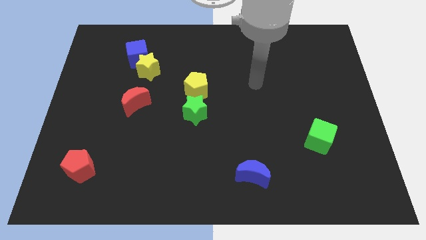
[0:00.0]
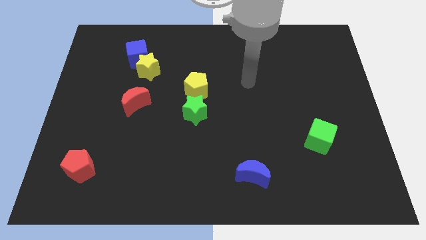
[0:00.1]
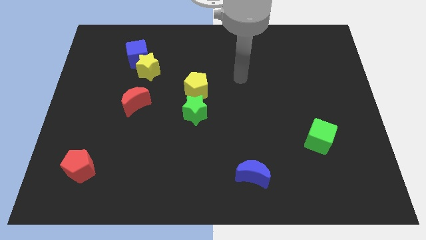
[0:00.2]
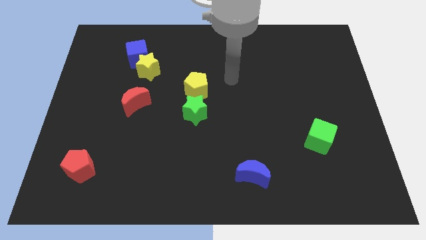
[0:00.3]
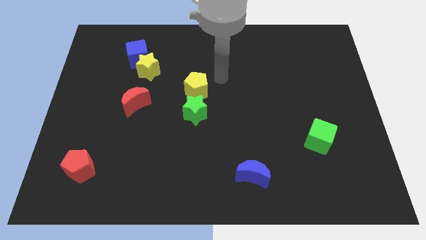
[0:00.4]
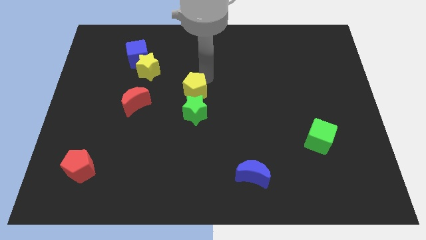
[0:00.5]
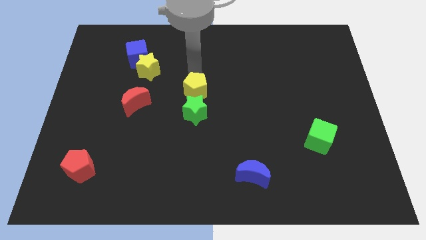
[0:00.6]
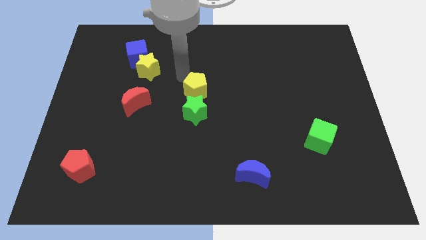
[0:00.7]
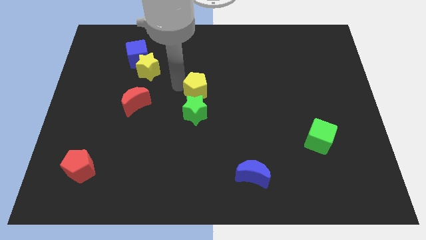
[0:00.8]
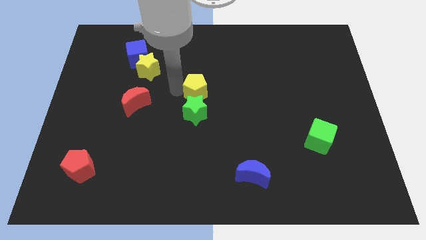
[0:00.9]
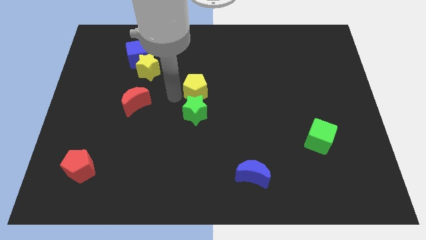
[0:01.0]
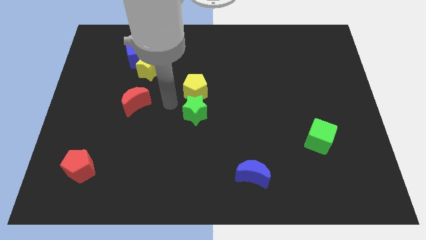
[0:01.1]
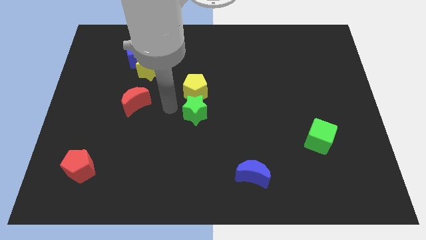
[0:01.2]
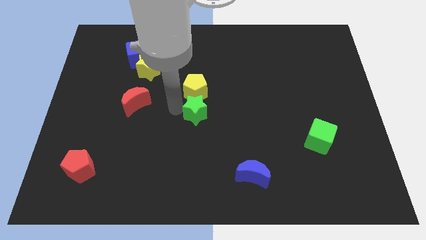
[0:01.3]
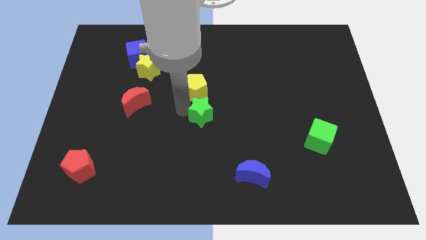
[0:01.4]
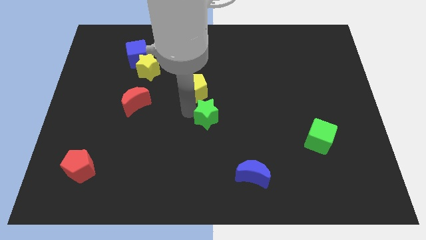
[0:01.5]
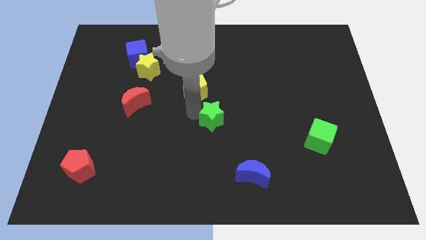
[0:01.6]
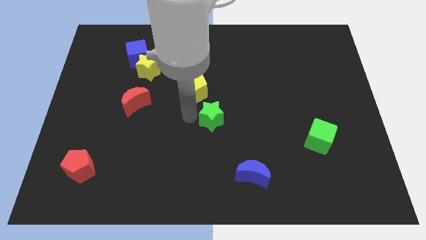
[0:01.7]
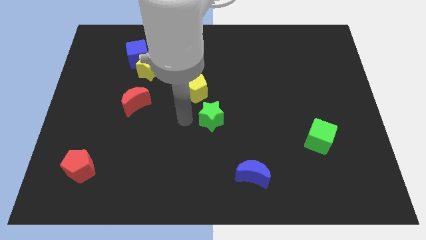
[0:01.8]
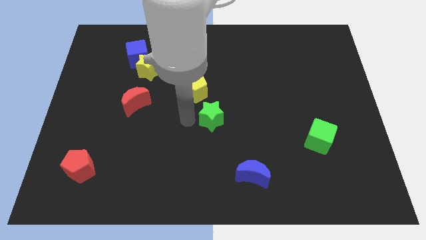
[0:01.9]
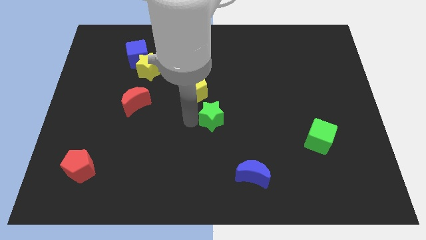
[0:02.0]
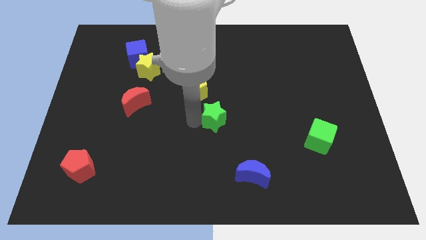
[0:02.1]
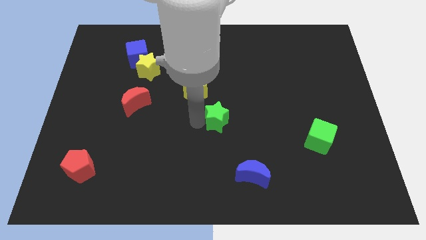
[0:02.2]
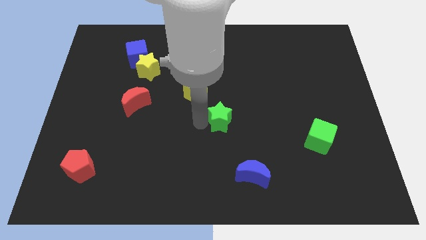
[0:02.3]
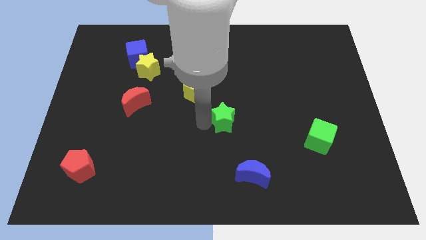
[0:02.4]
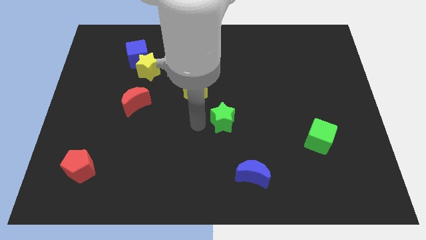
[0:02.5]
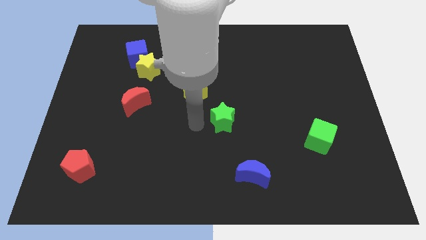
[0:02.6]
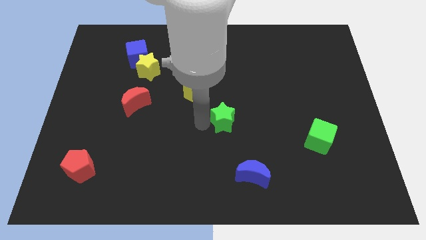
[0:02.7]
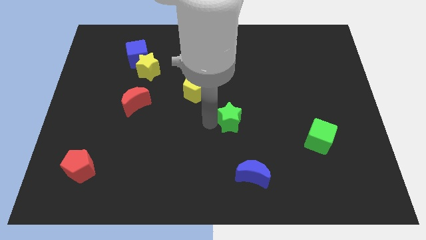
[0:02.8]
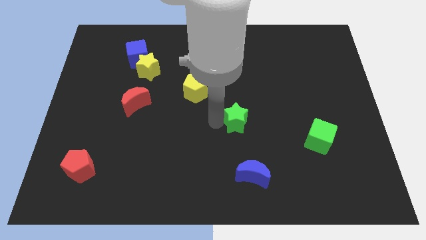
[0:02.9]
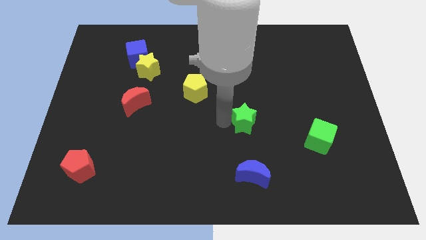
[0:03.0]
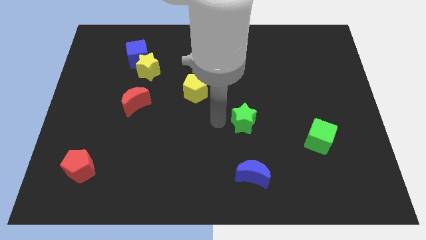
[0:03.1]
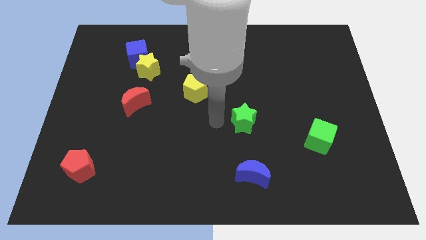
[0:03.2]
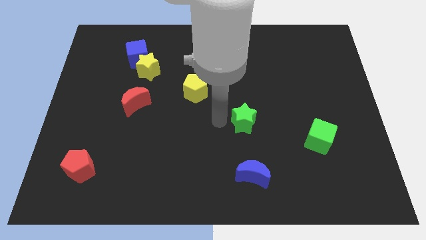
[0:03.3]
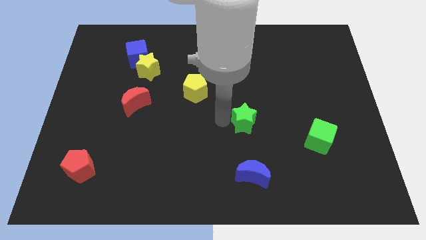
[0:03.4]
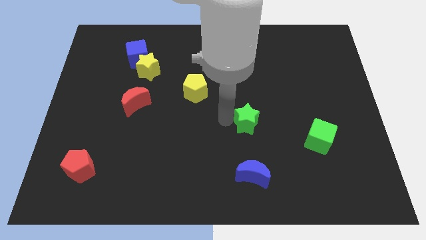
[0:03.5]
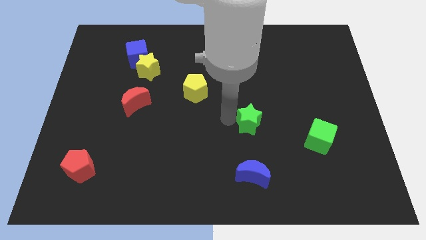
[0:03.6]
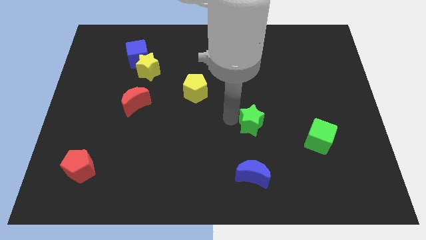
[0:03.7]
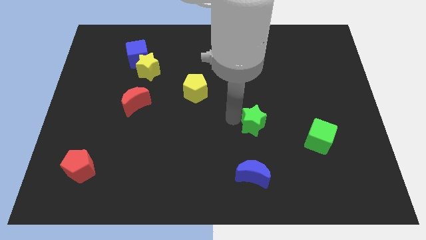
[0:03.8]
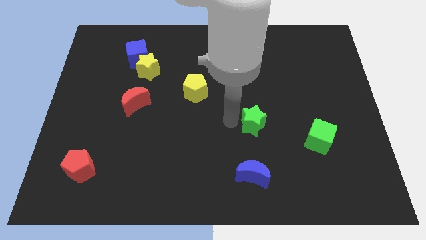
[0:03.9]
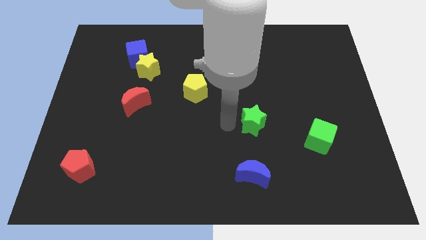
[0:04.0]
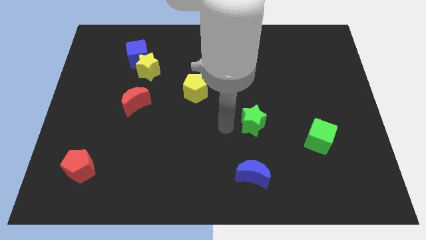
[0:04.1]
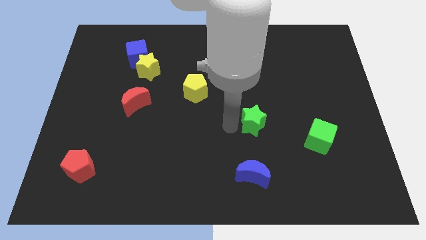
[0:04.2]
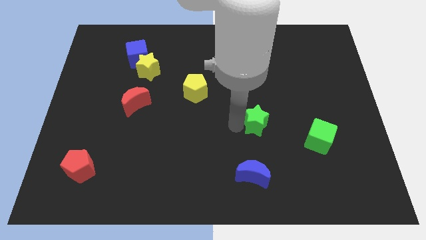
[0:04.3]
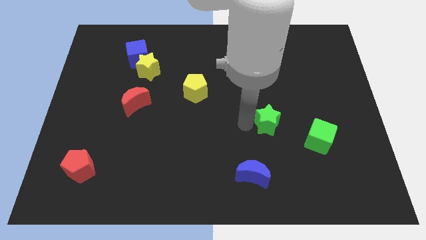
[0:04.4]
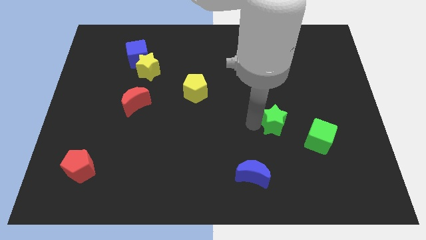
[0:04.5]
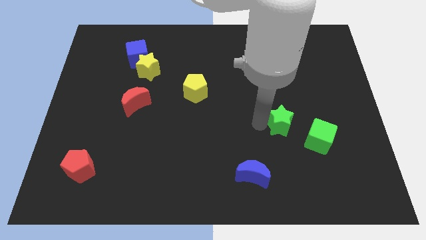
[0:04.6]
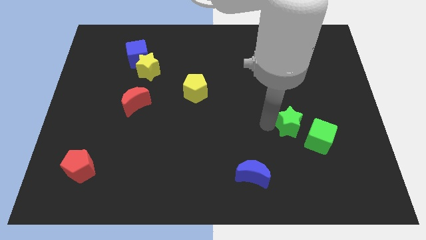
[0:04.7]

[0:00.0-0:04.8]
slide the green star right

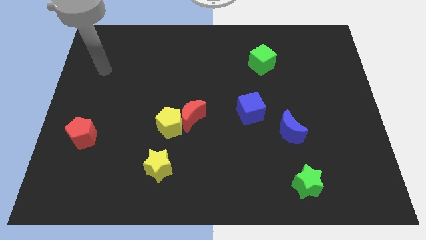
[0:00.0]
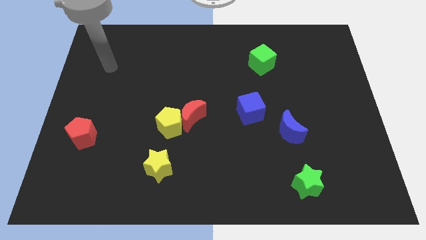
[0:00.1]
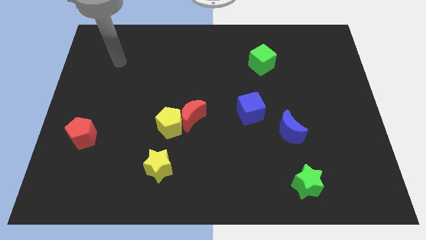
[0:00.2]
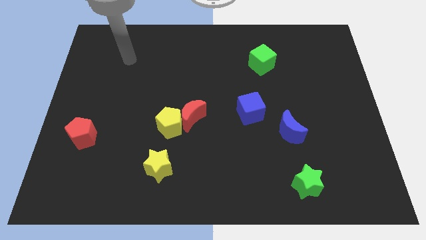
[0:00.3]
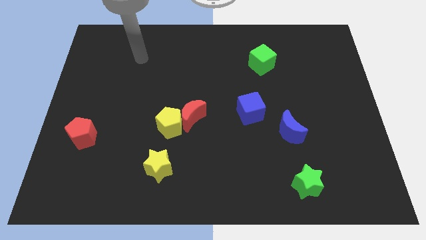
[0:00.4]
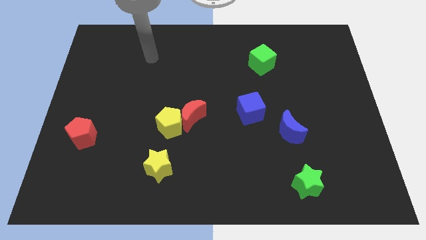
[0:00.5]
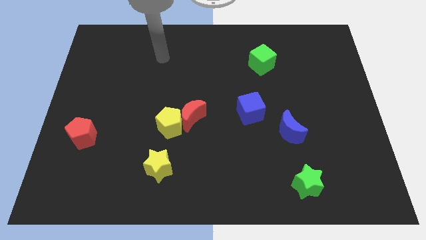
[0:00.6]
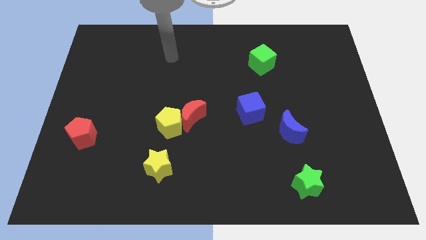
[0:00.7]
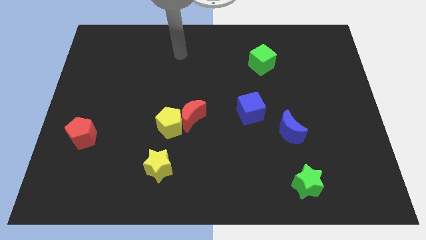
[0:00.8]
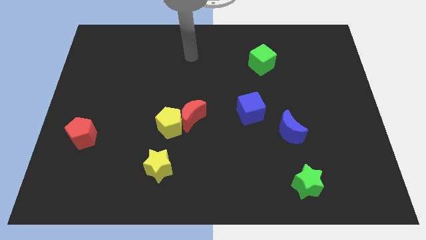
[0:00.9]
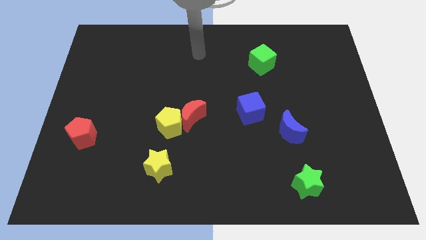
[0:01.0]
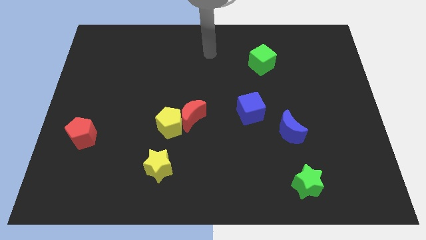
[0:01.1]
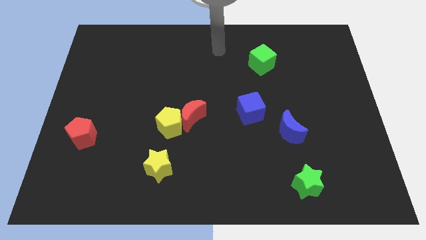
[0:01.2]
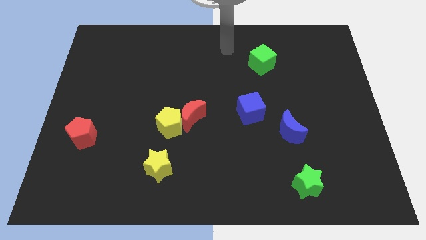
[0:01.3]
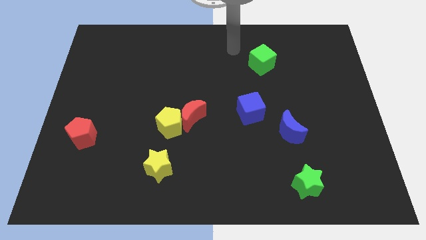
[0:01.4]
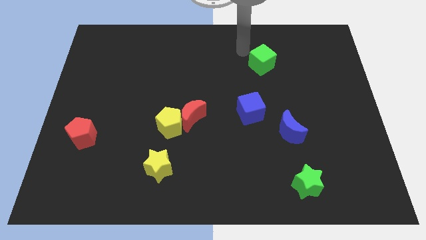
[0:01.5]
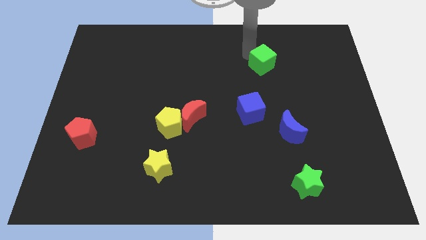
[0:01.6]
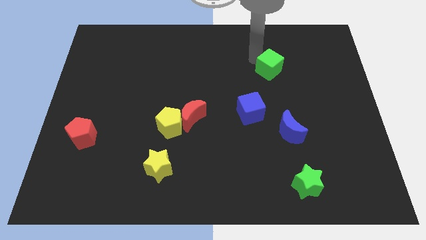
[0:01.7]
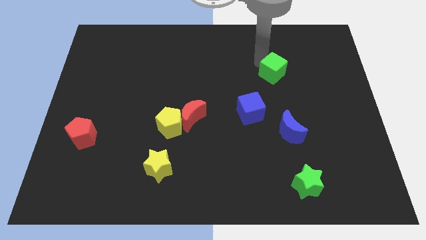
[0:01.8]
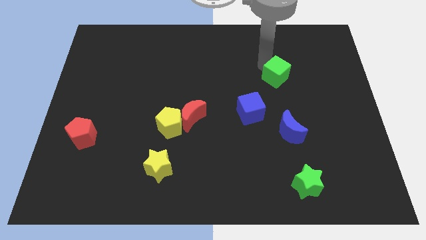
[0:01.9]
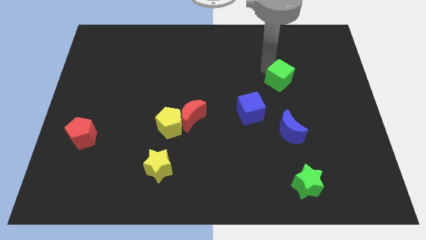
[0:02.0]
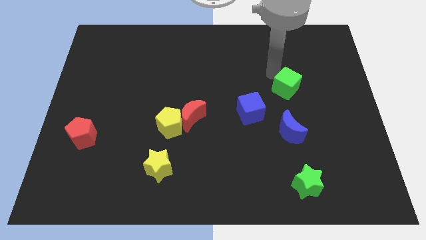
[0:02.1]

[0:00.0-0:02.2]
slightly move the green cube downwards and right

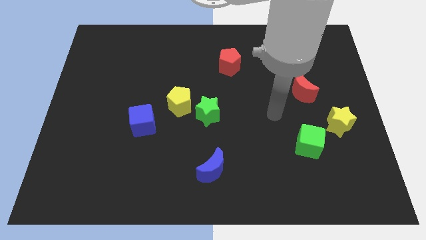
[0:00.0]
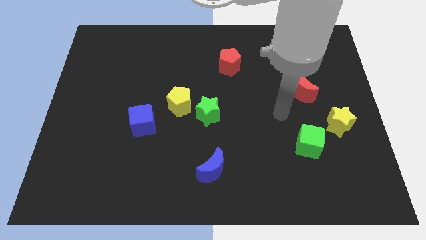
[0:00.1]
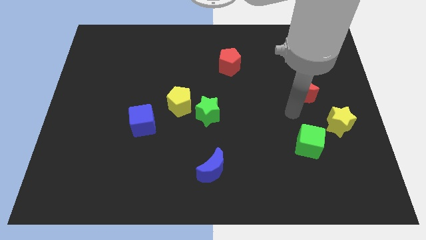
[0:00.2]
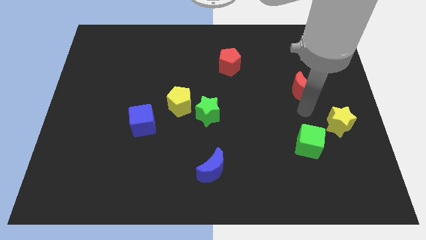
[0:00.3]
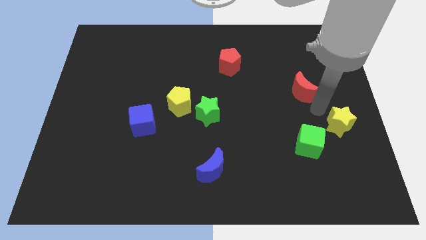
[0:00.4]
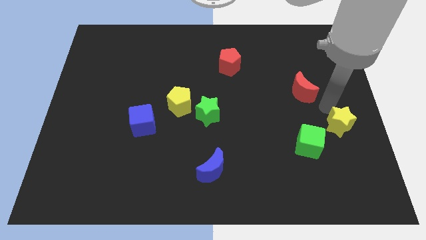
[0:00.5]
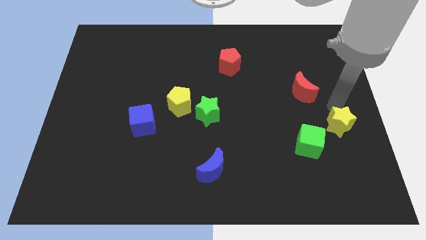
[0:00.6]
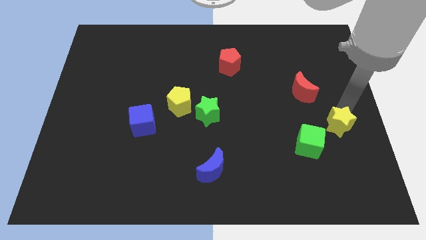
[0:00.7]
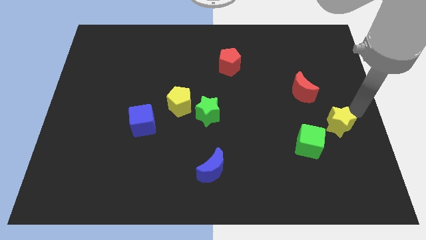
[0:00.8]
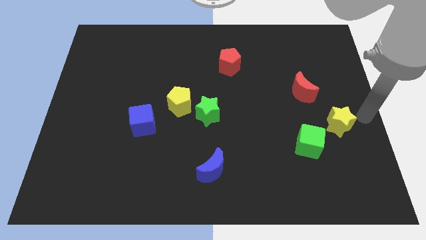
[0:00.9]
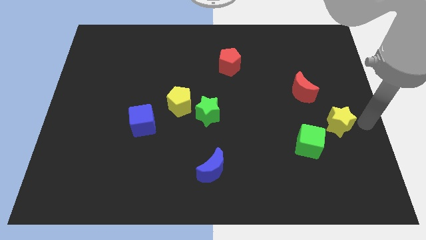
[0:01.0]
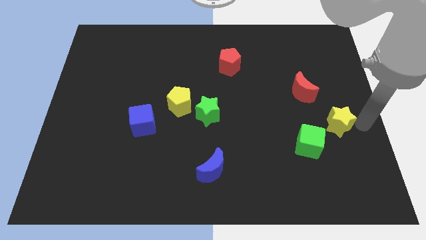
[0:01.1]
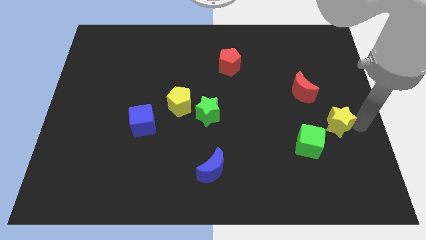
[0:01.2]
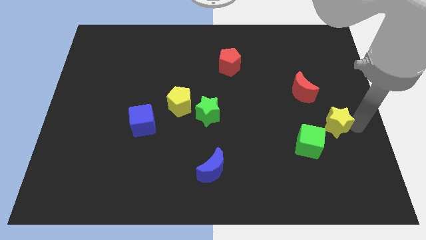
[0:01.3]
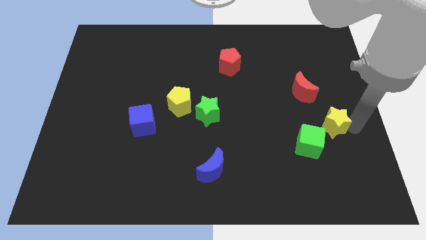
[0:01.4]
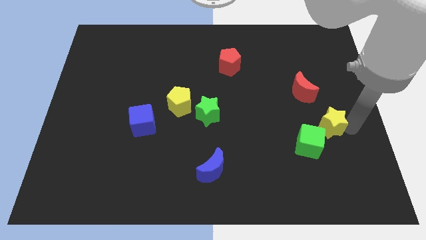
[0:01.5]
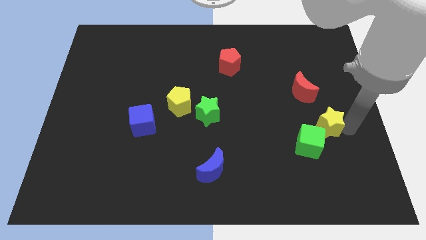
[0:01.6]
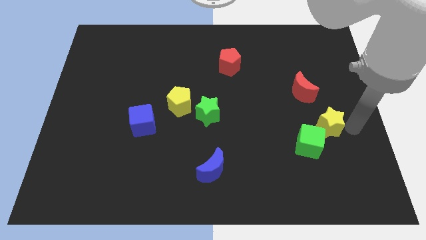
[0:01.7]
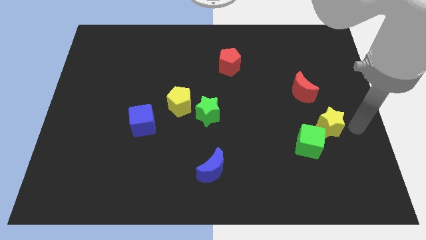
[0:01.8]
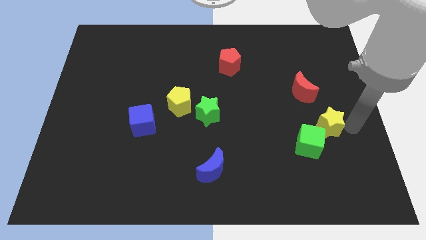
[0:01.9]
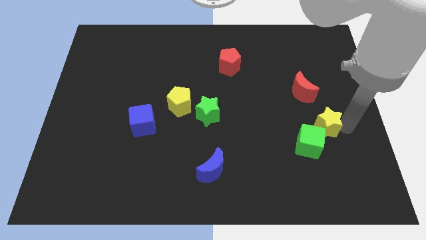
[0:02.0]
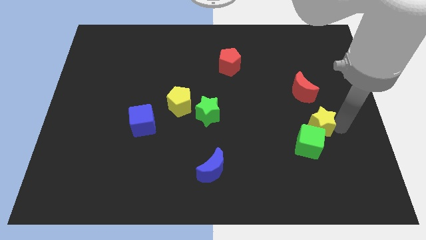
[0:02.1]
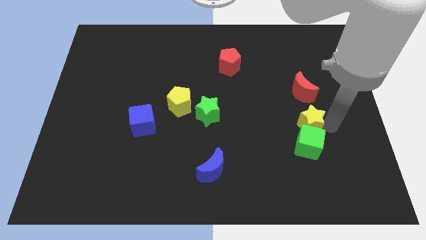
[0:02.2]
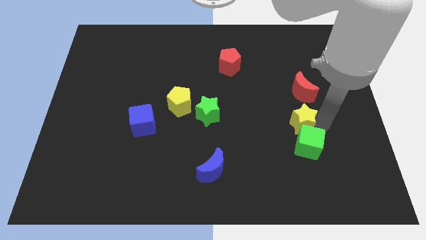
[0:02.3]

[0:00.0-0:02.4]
move the yellow star a little bit to the left
